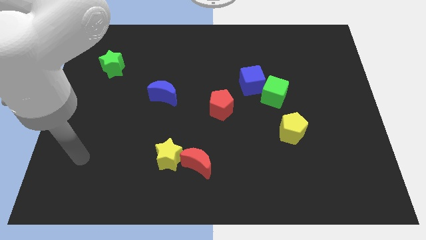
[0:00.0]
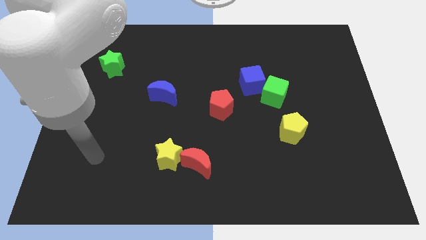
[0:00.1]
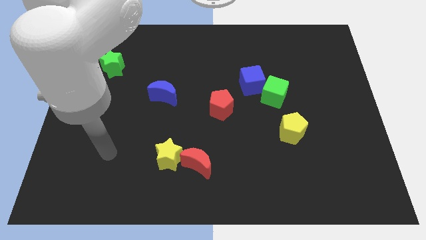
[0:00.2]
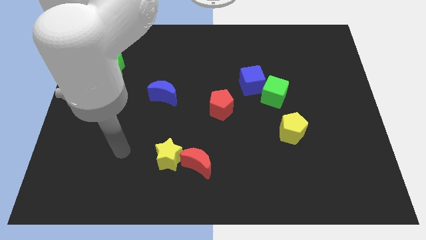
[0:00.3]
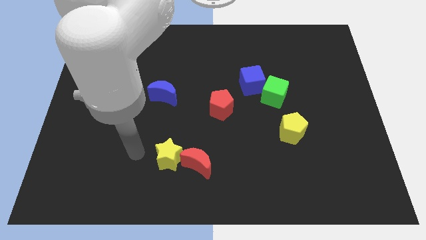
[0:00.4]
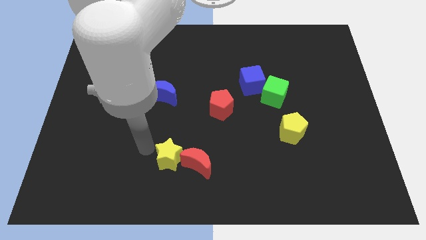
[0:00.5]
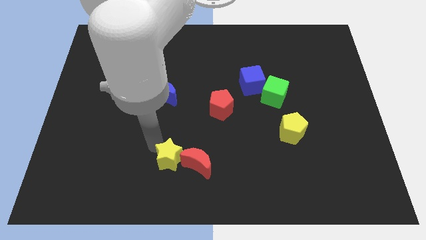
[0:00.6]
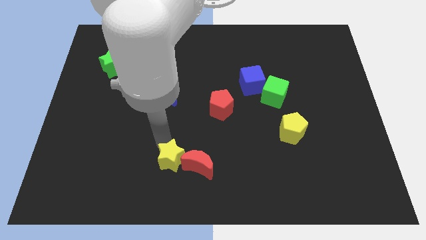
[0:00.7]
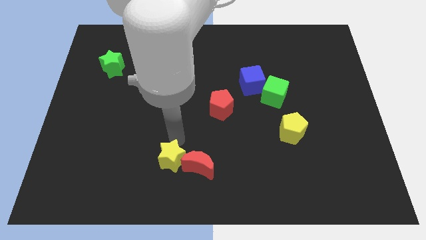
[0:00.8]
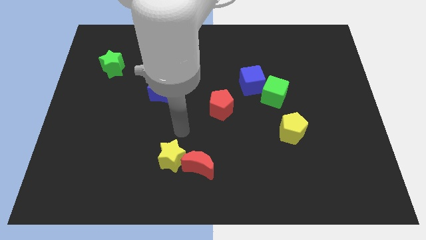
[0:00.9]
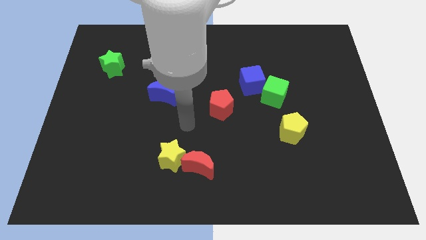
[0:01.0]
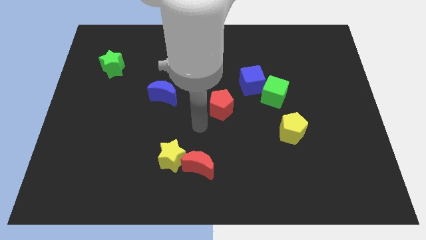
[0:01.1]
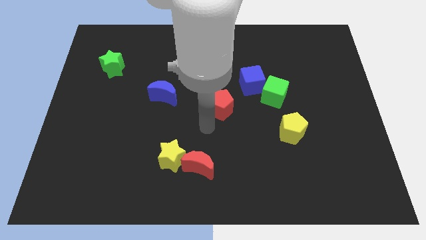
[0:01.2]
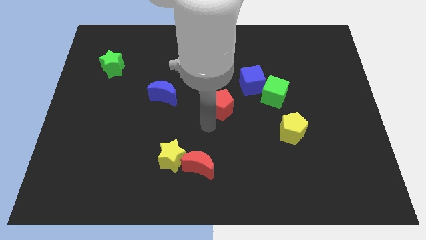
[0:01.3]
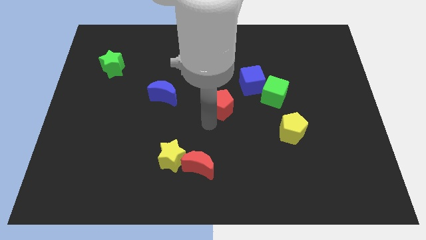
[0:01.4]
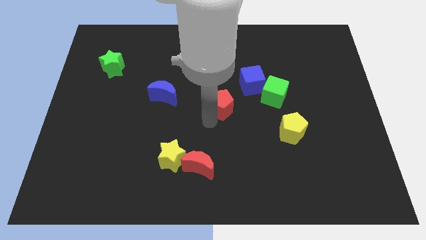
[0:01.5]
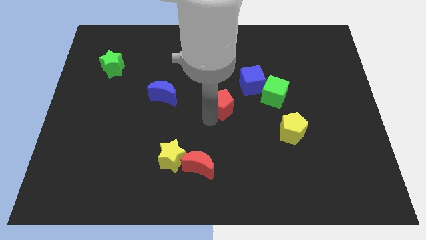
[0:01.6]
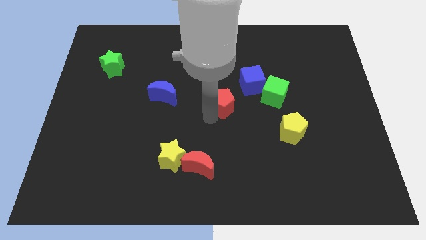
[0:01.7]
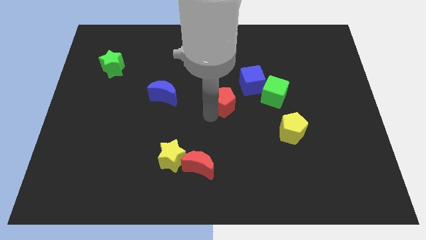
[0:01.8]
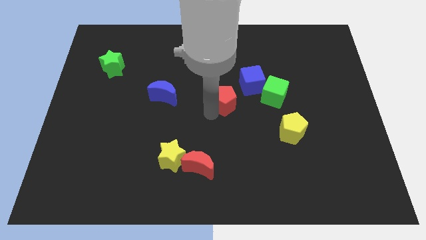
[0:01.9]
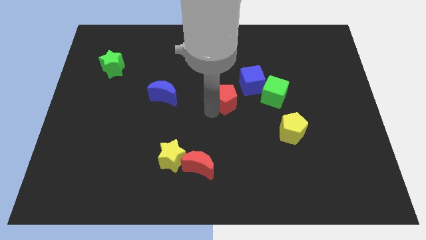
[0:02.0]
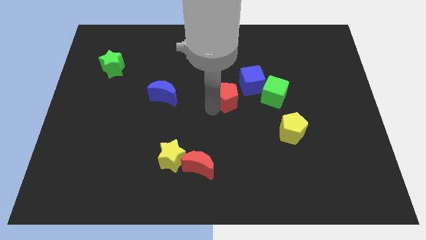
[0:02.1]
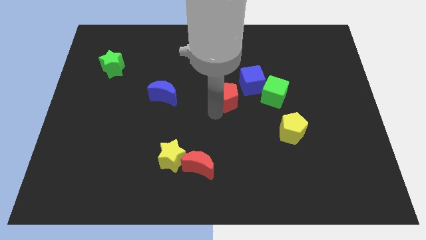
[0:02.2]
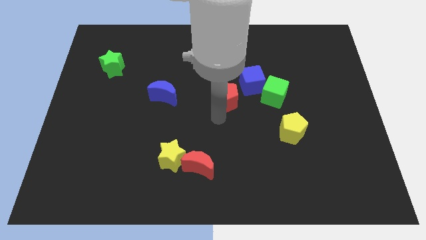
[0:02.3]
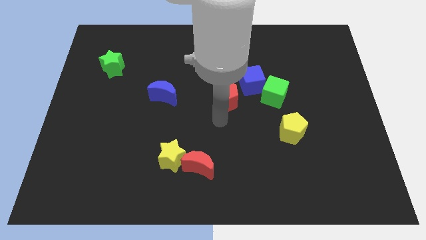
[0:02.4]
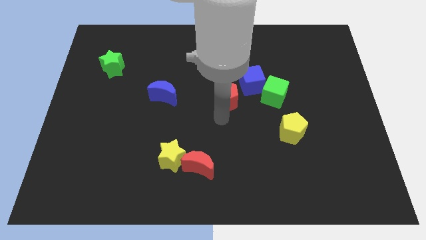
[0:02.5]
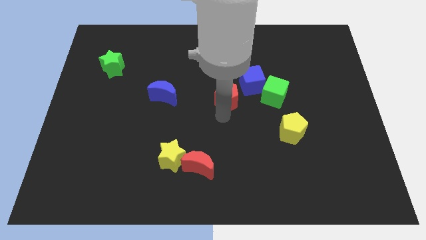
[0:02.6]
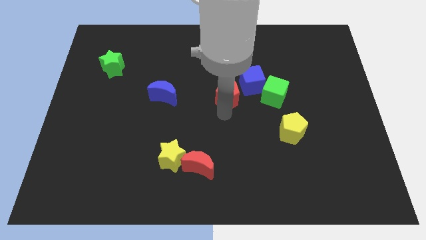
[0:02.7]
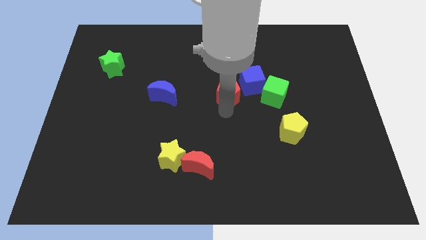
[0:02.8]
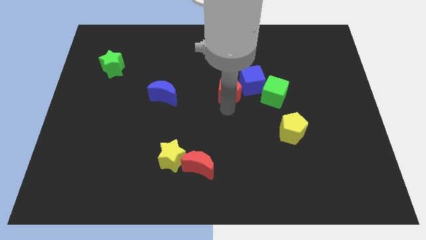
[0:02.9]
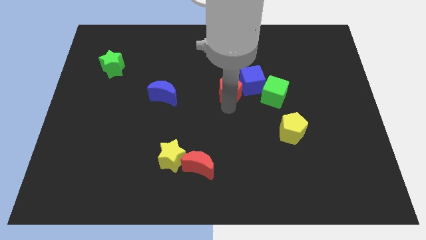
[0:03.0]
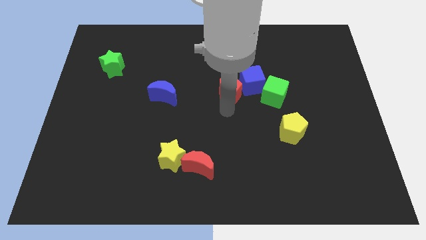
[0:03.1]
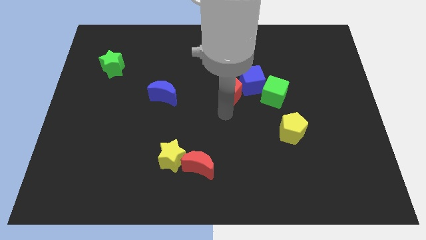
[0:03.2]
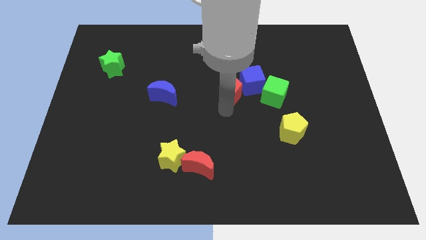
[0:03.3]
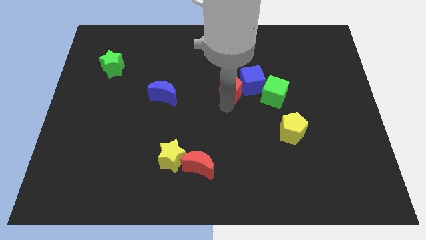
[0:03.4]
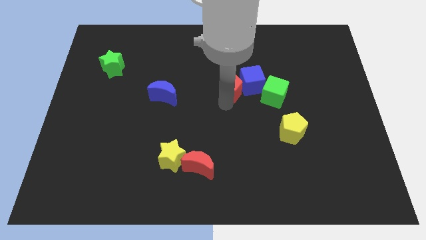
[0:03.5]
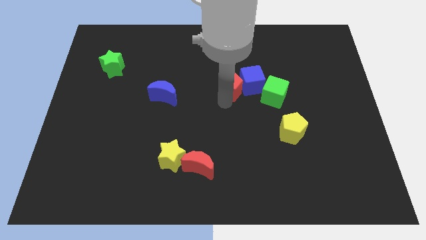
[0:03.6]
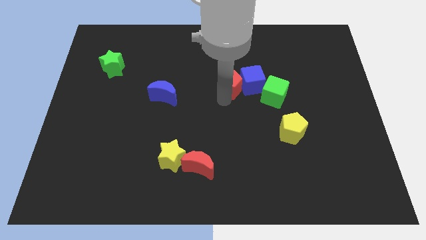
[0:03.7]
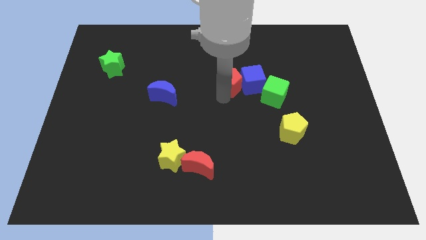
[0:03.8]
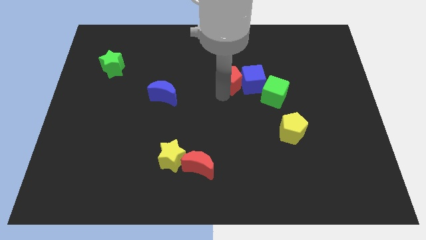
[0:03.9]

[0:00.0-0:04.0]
push the red pentagon a bit diagonally upwards and right

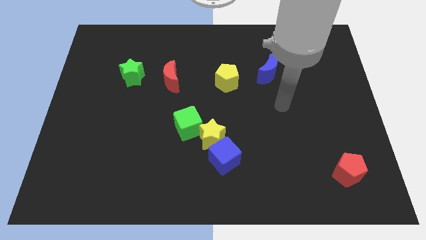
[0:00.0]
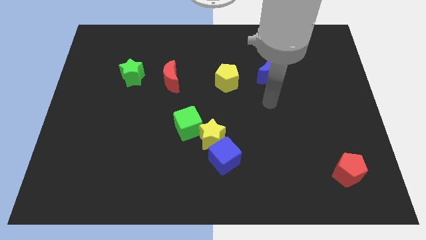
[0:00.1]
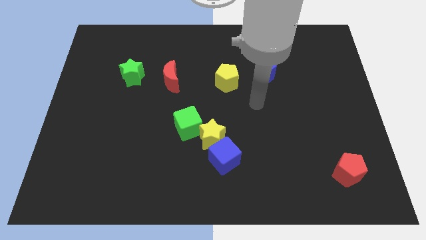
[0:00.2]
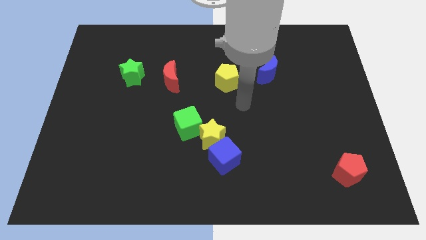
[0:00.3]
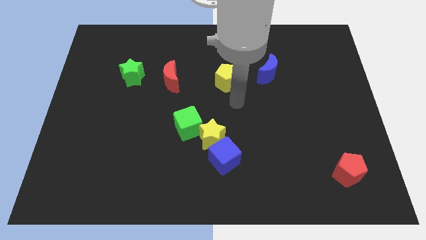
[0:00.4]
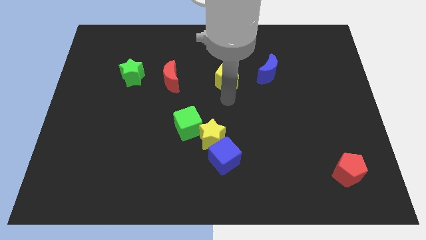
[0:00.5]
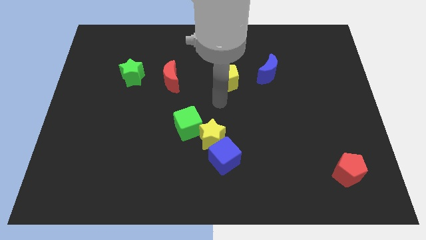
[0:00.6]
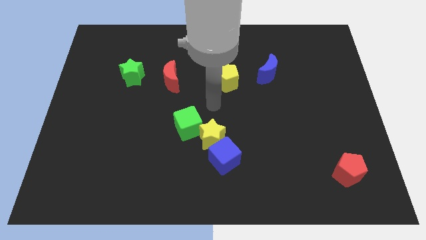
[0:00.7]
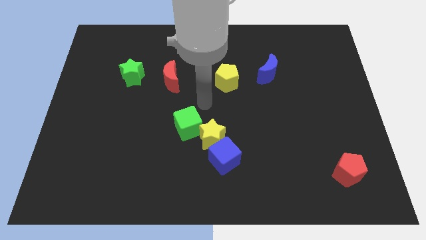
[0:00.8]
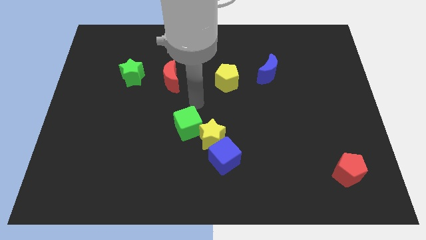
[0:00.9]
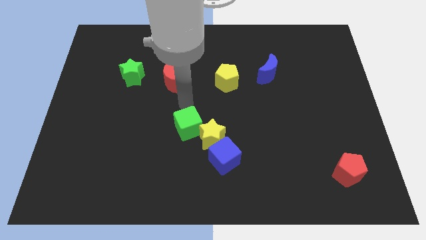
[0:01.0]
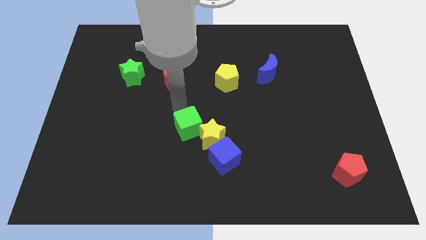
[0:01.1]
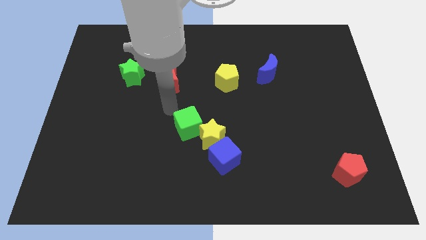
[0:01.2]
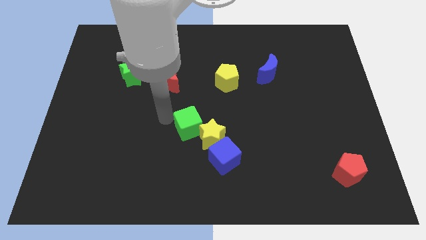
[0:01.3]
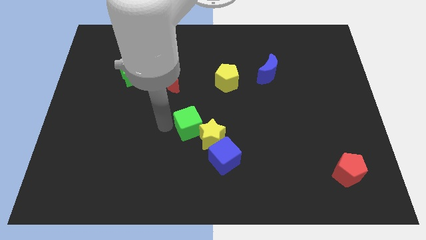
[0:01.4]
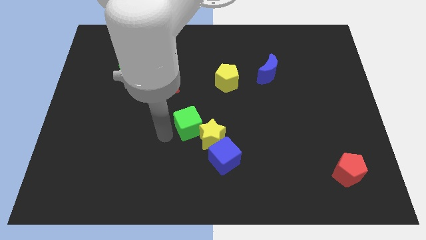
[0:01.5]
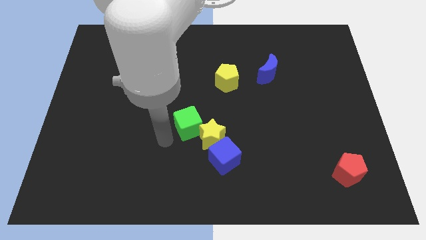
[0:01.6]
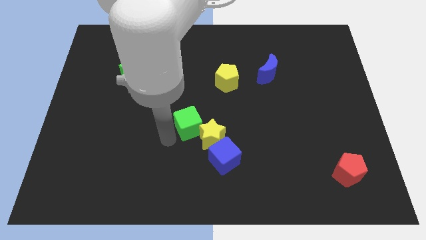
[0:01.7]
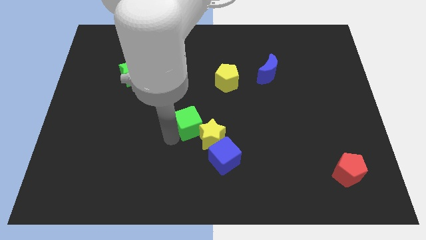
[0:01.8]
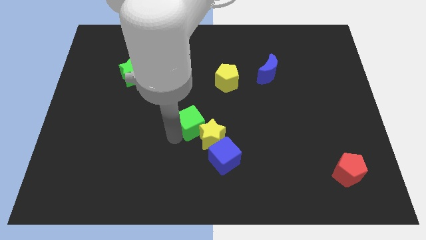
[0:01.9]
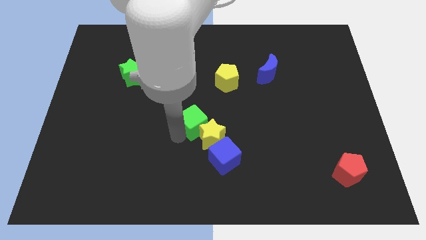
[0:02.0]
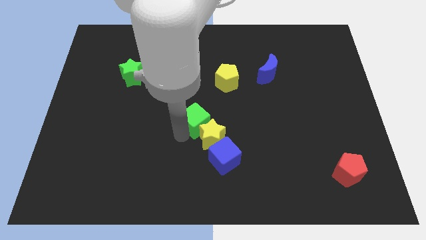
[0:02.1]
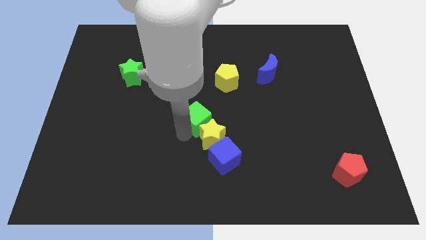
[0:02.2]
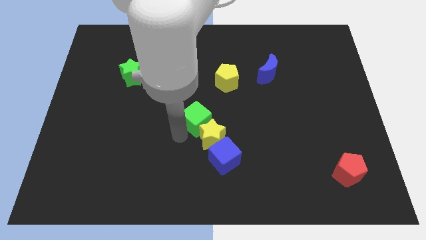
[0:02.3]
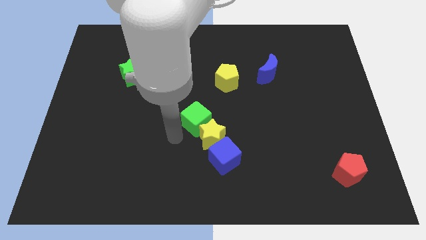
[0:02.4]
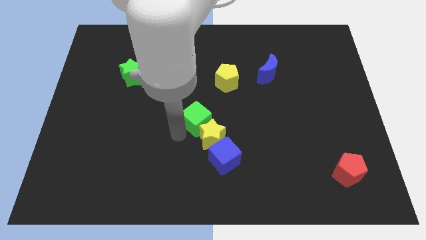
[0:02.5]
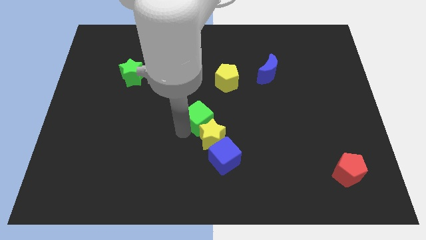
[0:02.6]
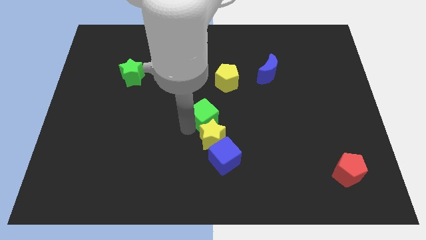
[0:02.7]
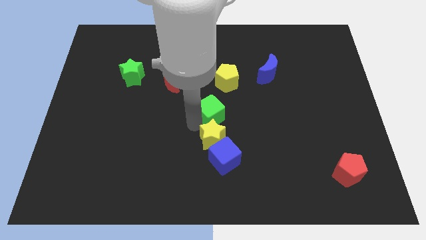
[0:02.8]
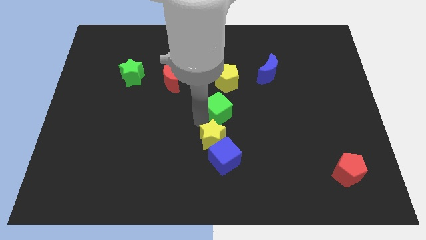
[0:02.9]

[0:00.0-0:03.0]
push the green cube upwards and right diagonally a little bit

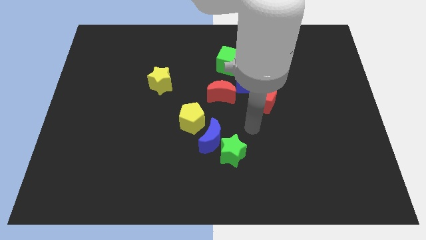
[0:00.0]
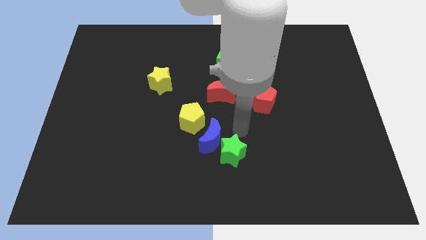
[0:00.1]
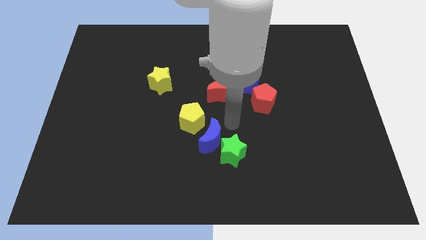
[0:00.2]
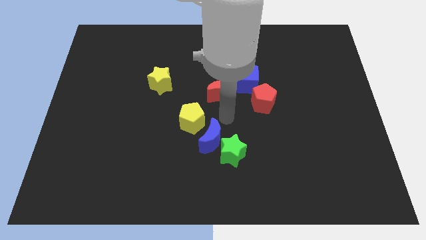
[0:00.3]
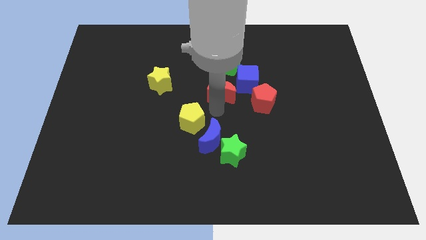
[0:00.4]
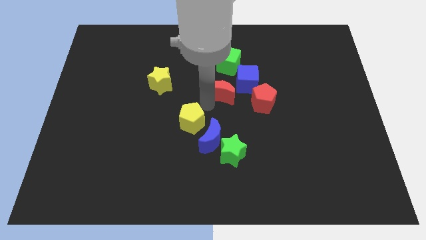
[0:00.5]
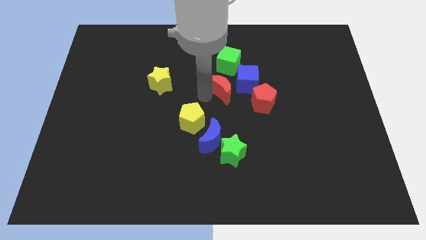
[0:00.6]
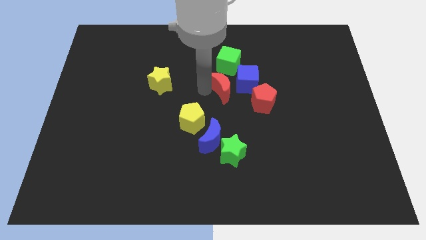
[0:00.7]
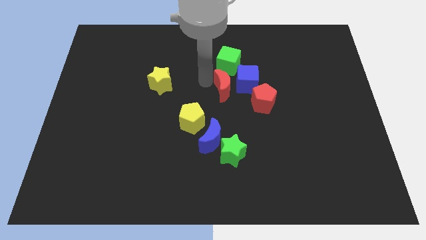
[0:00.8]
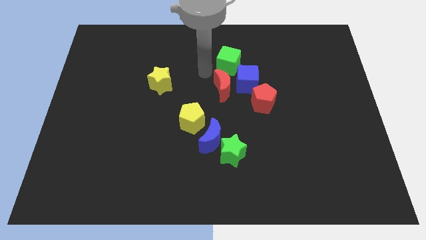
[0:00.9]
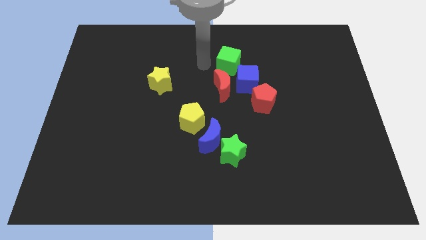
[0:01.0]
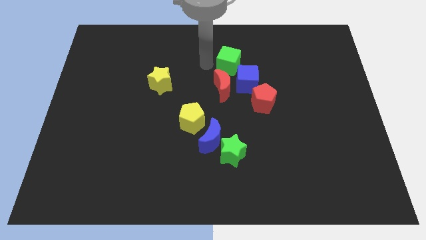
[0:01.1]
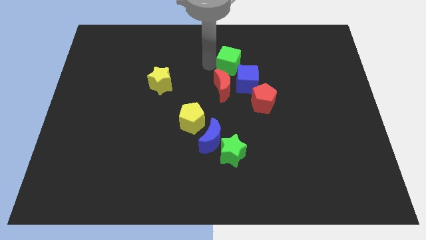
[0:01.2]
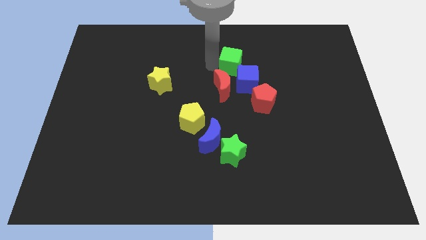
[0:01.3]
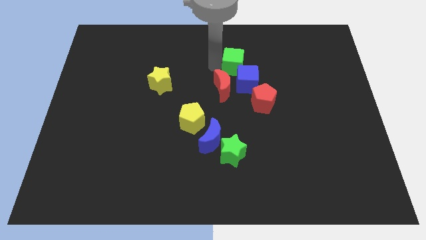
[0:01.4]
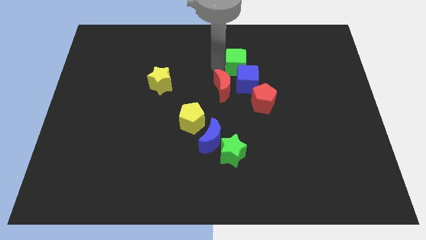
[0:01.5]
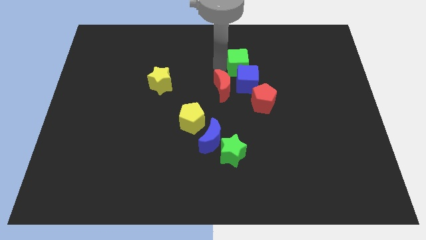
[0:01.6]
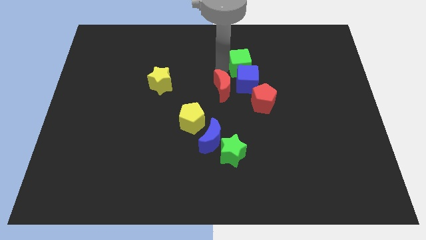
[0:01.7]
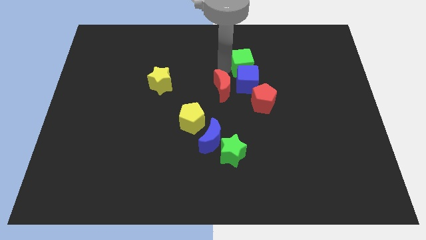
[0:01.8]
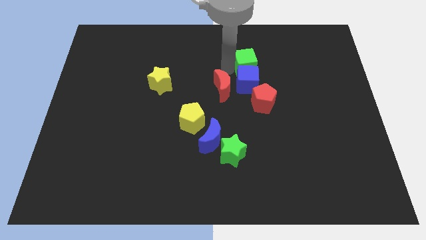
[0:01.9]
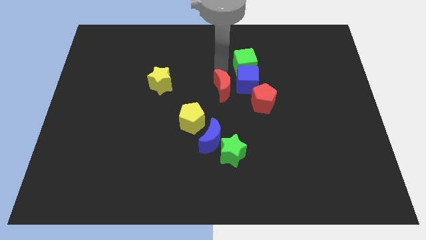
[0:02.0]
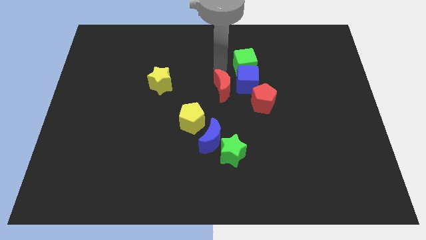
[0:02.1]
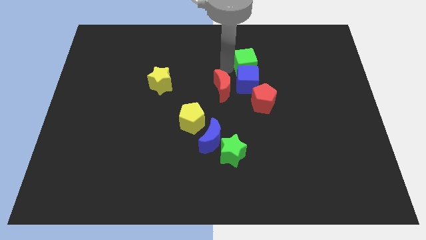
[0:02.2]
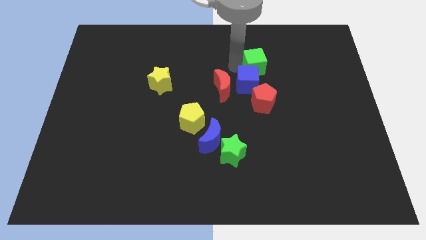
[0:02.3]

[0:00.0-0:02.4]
slightly push the green cube right
